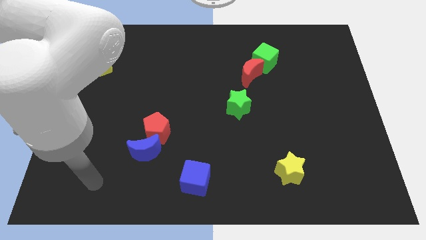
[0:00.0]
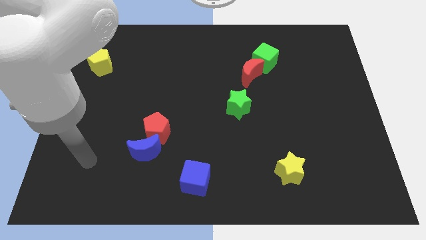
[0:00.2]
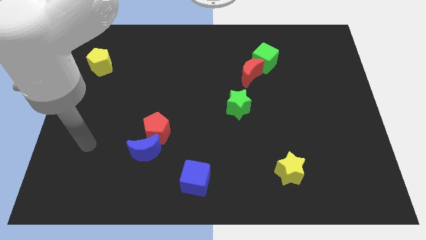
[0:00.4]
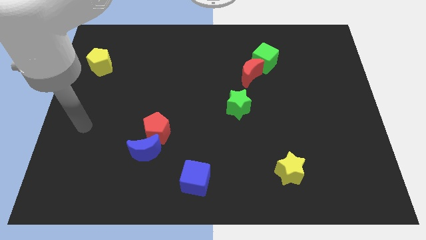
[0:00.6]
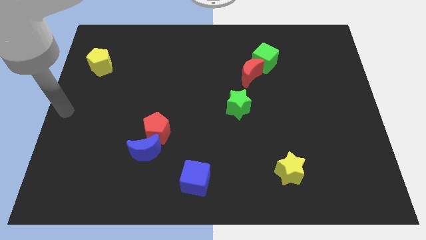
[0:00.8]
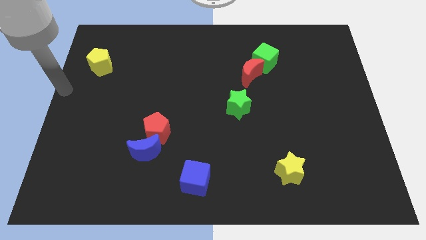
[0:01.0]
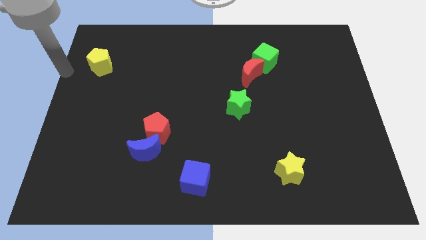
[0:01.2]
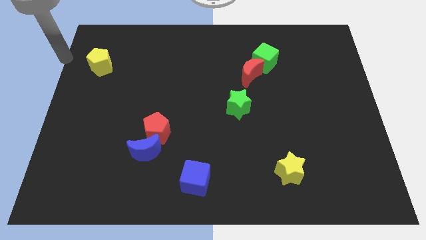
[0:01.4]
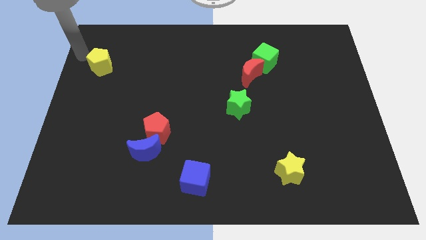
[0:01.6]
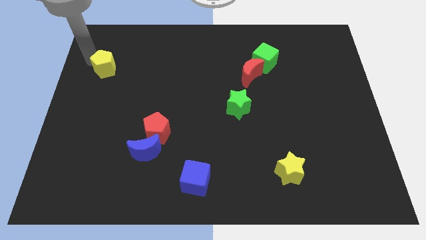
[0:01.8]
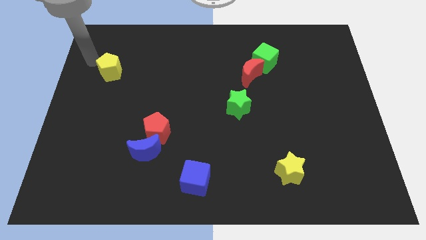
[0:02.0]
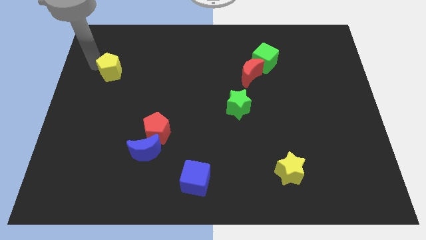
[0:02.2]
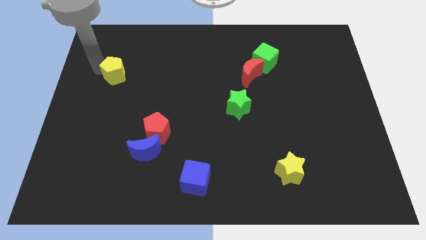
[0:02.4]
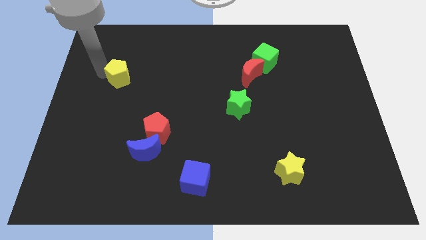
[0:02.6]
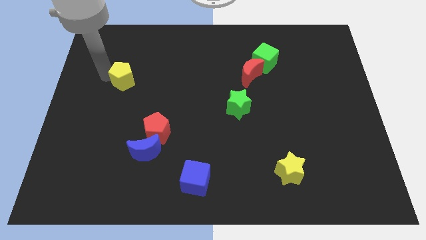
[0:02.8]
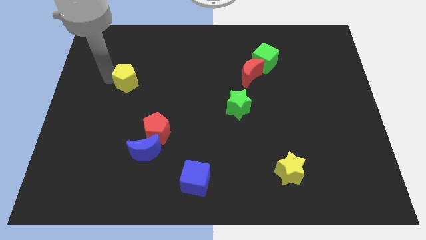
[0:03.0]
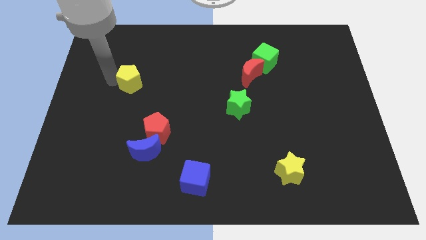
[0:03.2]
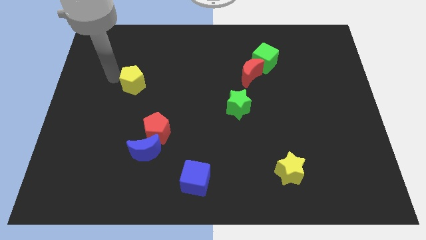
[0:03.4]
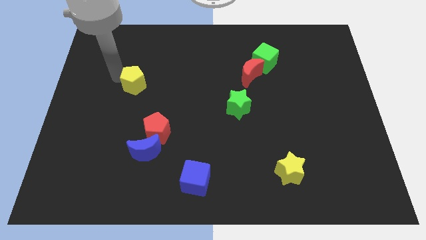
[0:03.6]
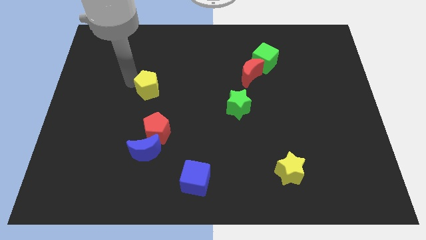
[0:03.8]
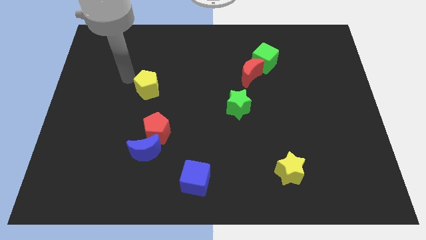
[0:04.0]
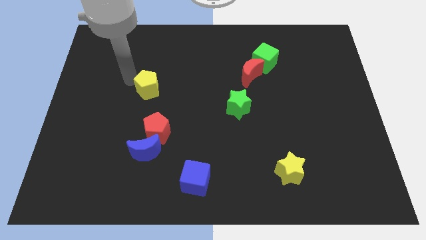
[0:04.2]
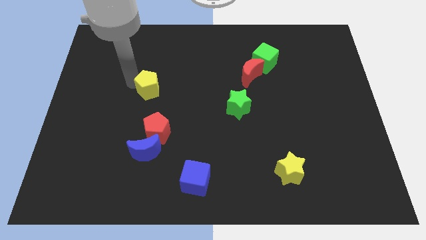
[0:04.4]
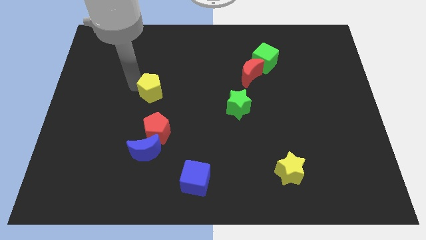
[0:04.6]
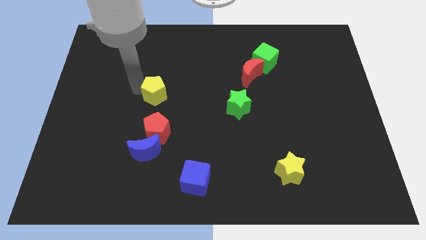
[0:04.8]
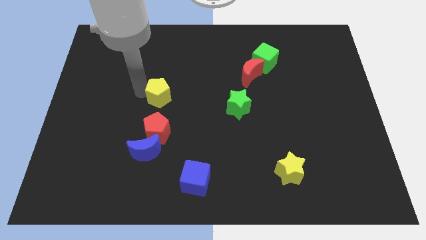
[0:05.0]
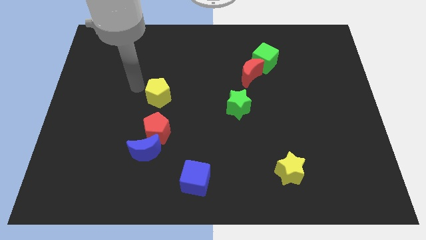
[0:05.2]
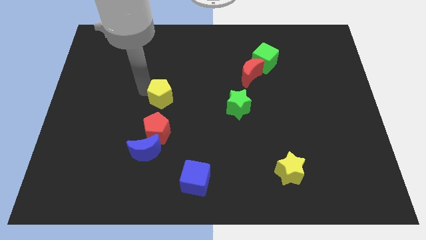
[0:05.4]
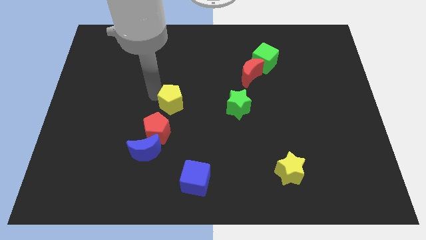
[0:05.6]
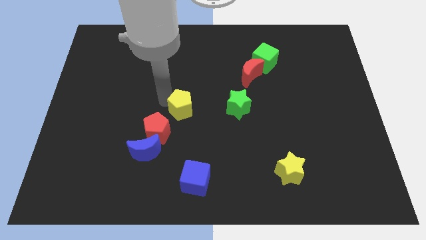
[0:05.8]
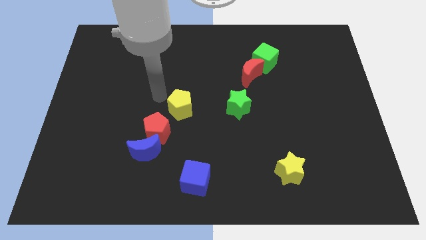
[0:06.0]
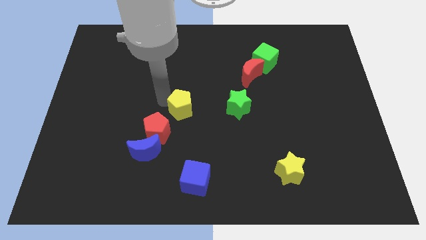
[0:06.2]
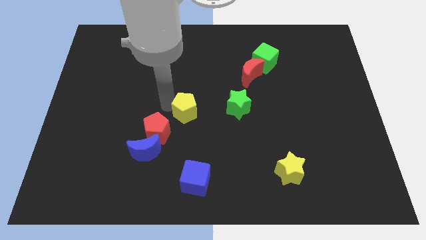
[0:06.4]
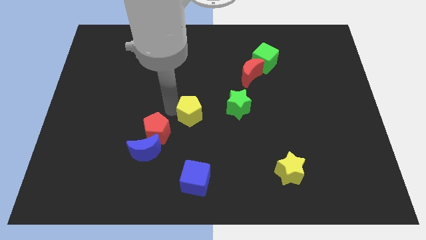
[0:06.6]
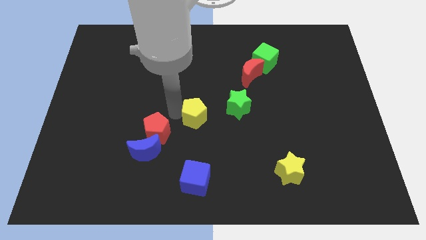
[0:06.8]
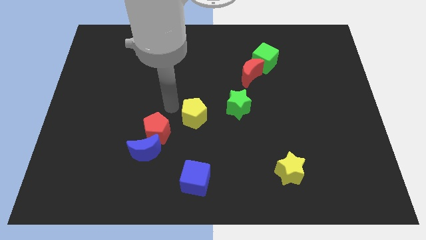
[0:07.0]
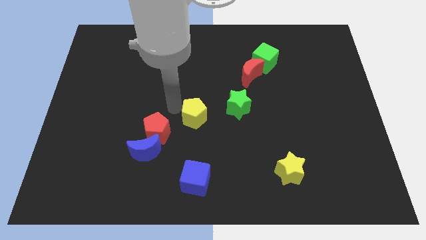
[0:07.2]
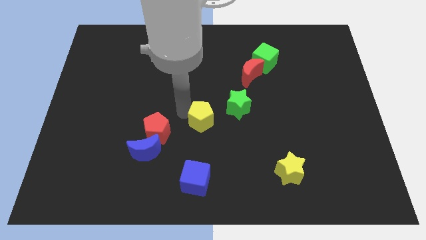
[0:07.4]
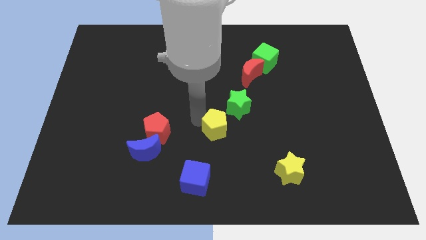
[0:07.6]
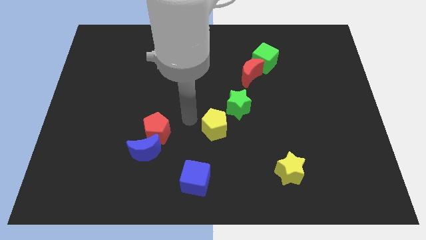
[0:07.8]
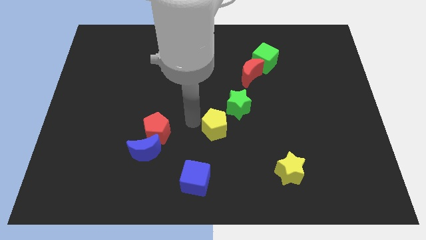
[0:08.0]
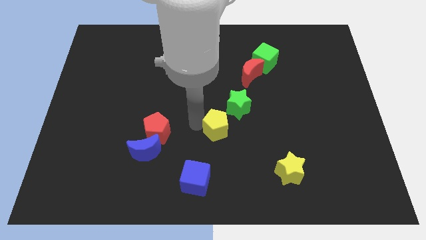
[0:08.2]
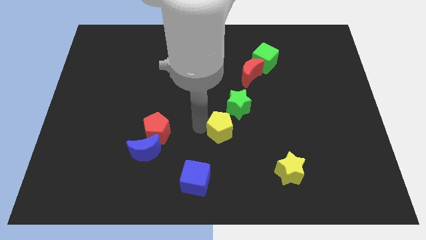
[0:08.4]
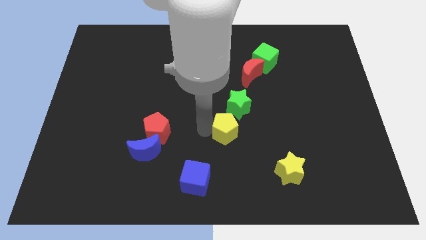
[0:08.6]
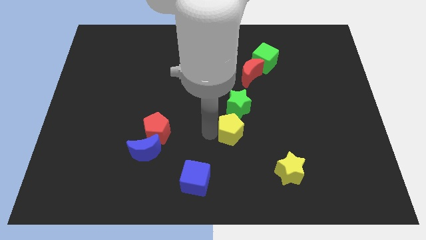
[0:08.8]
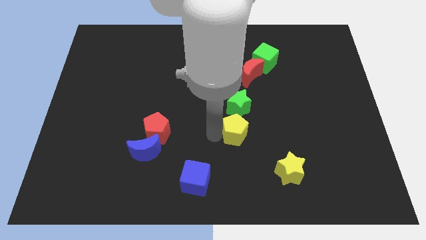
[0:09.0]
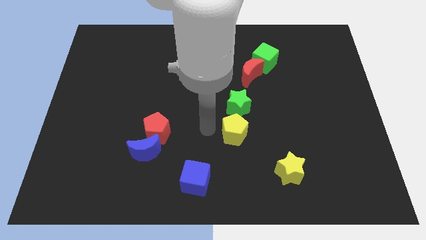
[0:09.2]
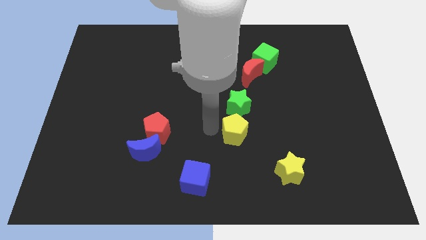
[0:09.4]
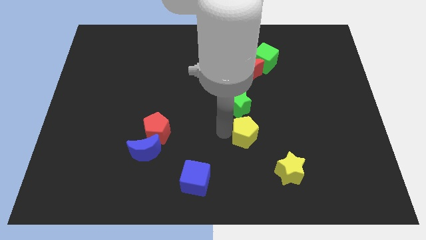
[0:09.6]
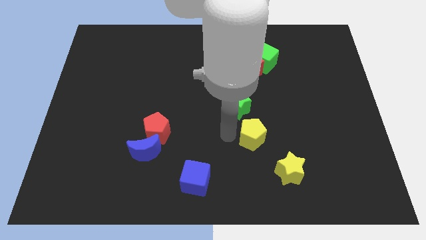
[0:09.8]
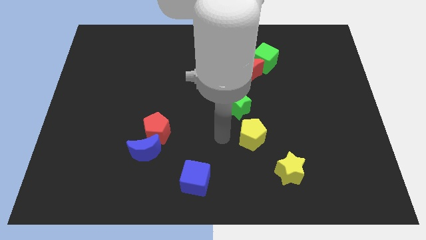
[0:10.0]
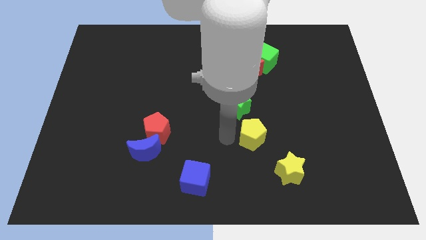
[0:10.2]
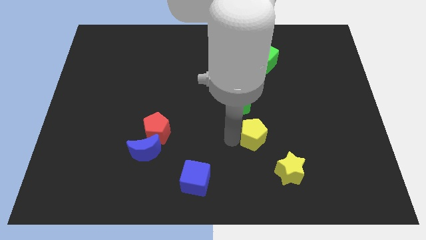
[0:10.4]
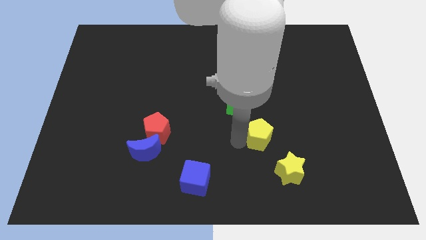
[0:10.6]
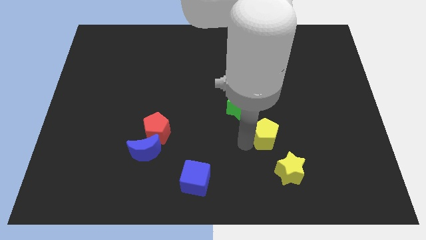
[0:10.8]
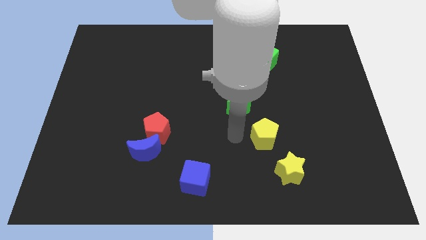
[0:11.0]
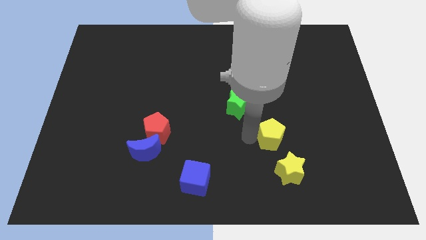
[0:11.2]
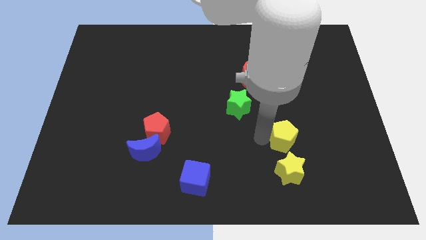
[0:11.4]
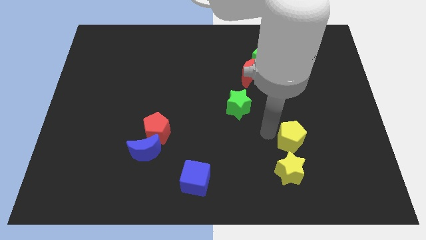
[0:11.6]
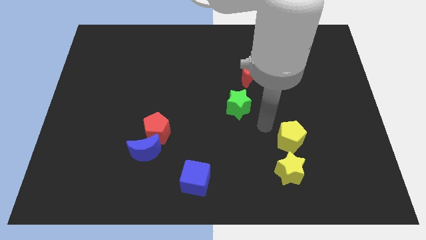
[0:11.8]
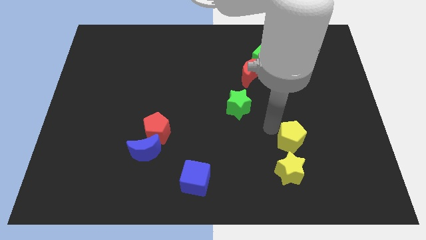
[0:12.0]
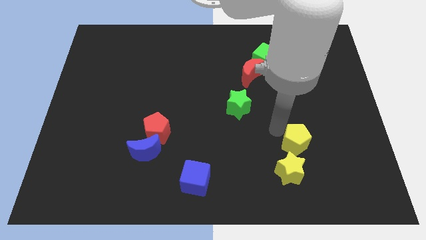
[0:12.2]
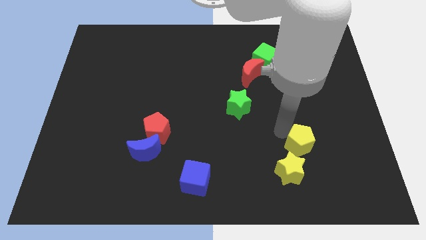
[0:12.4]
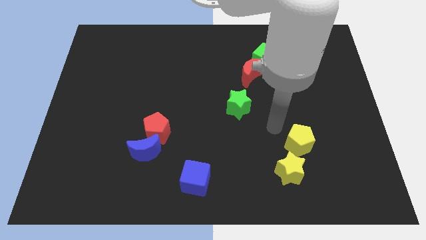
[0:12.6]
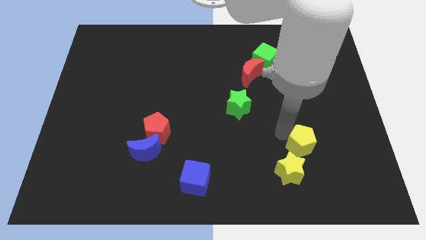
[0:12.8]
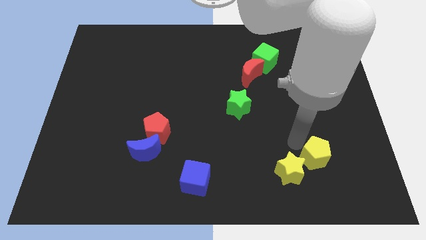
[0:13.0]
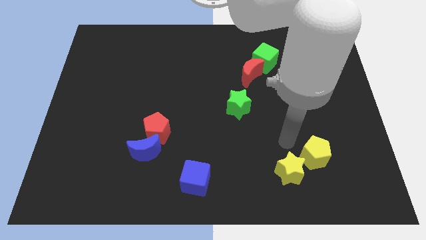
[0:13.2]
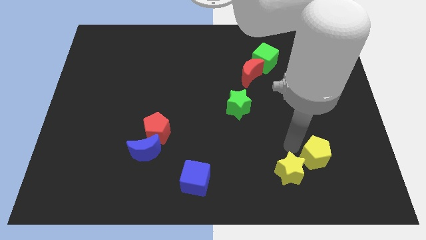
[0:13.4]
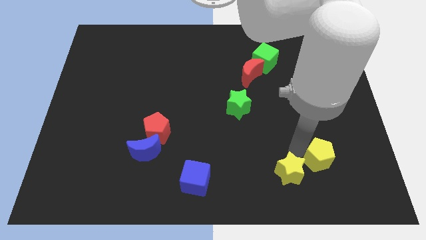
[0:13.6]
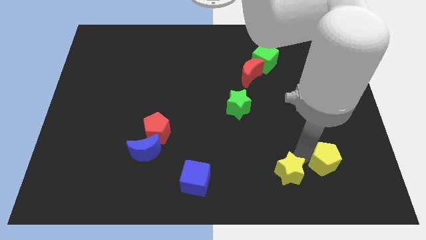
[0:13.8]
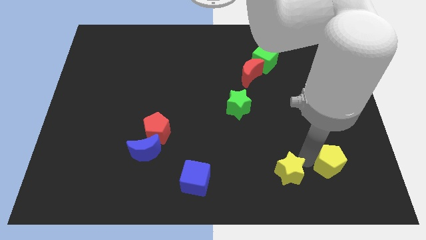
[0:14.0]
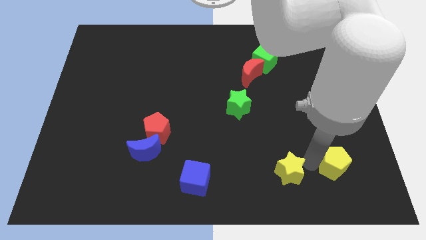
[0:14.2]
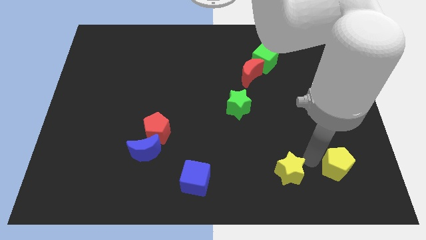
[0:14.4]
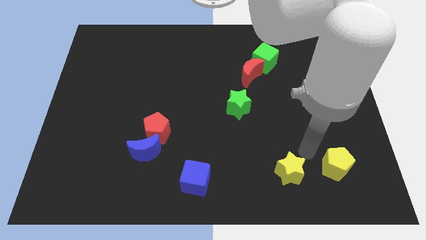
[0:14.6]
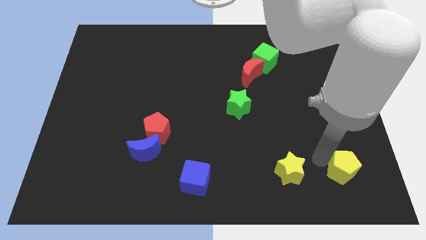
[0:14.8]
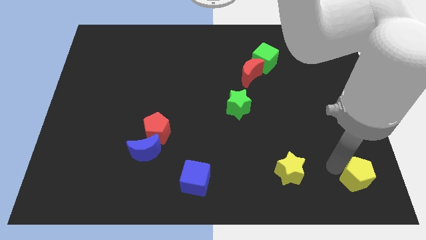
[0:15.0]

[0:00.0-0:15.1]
push the yellow pentagon to the bottom right
